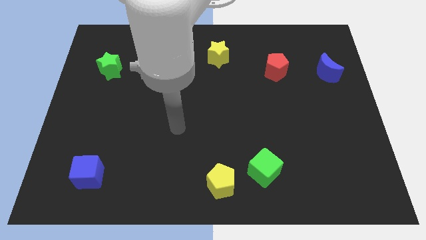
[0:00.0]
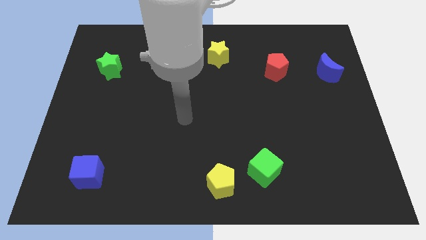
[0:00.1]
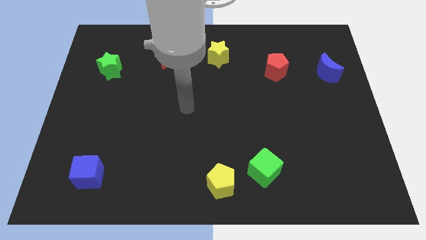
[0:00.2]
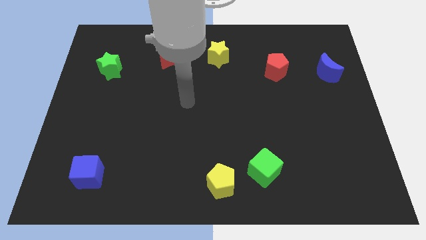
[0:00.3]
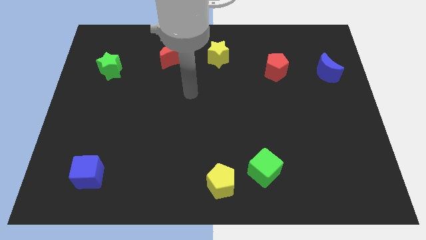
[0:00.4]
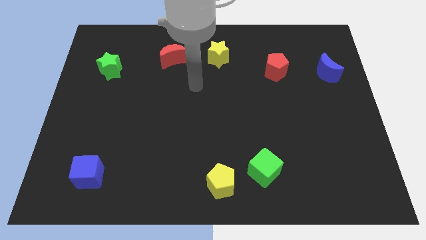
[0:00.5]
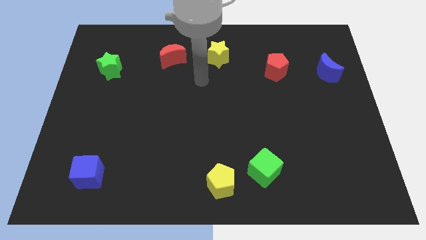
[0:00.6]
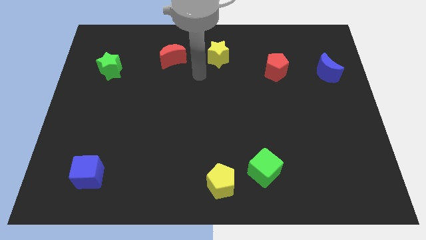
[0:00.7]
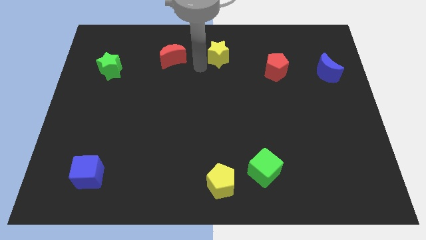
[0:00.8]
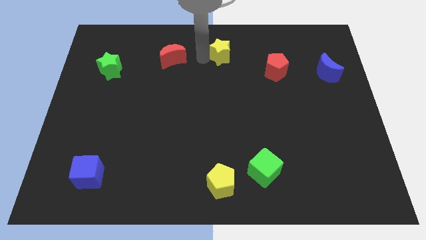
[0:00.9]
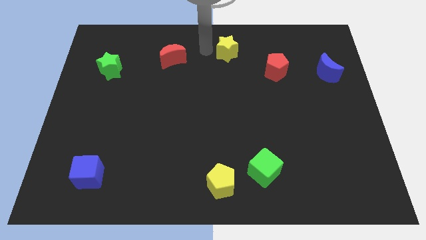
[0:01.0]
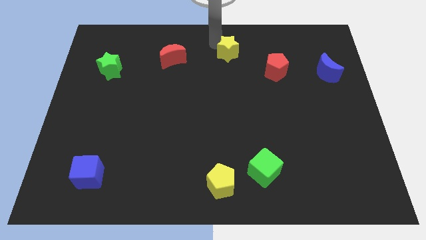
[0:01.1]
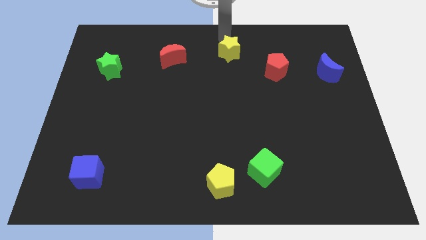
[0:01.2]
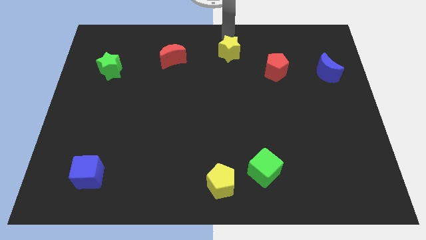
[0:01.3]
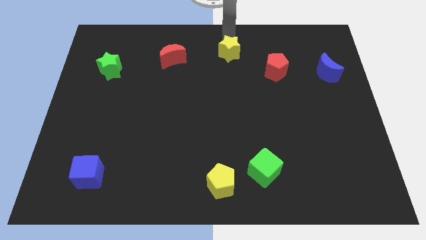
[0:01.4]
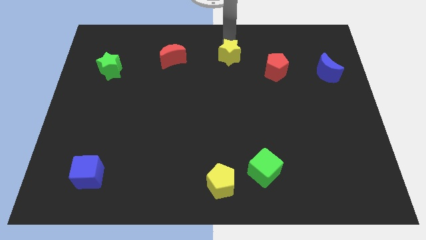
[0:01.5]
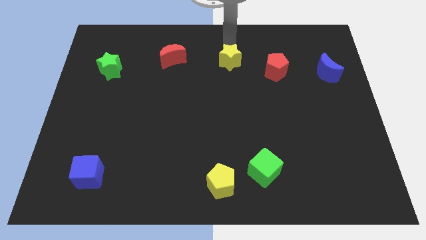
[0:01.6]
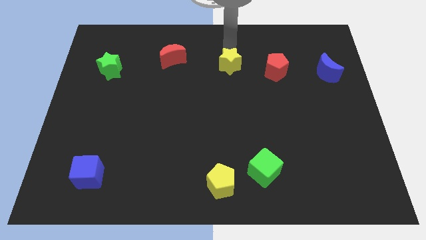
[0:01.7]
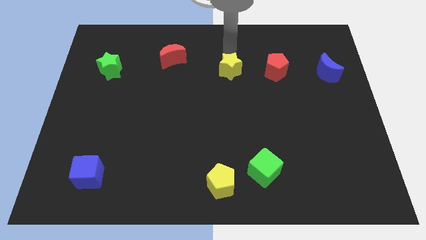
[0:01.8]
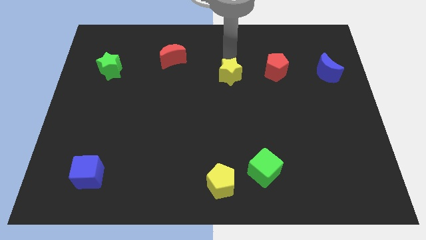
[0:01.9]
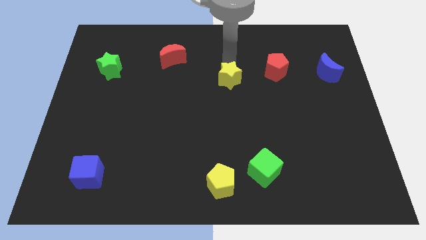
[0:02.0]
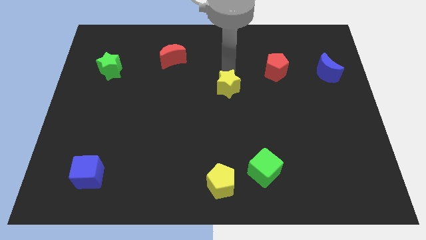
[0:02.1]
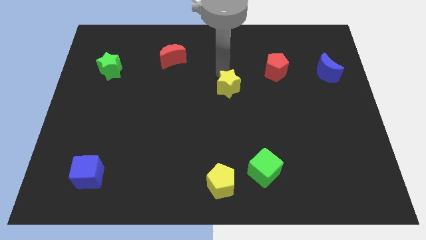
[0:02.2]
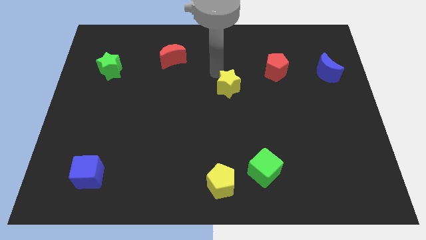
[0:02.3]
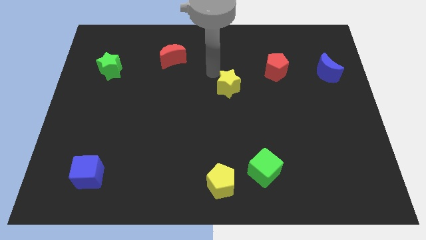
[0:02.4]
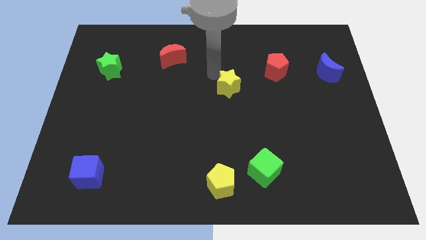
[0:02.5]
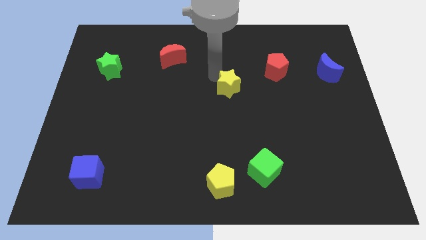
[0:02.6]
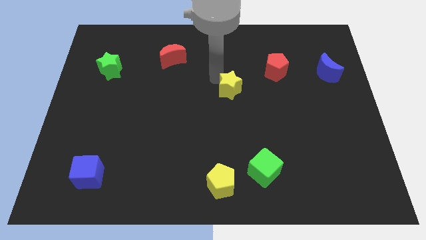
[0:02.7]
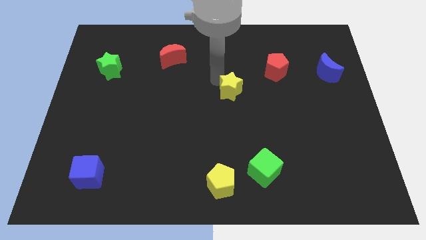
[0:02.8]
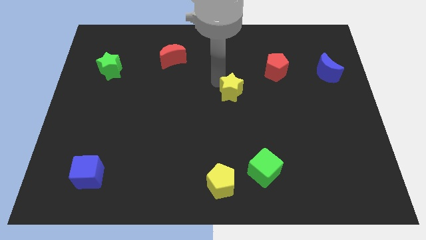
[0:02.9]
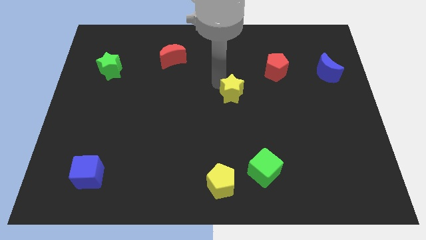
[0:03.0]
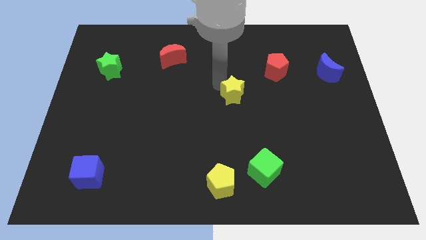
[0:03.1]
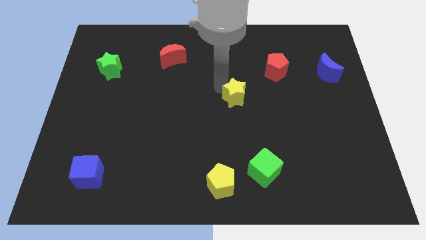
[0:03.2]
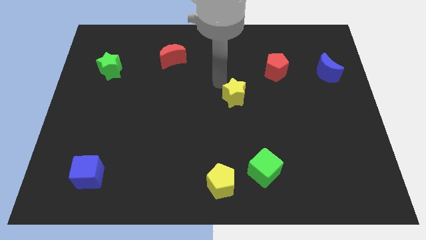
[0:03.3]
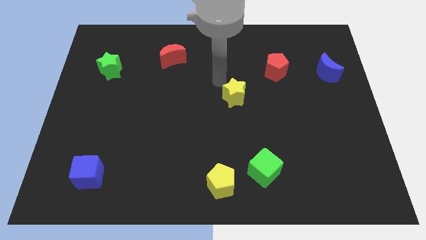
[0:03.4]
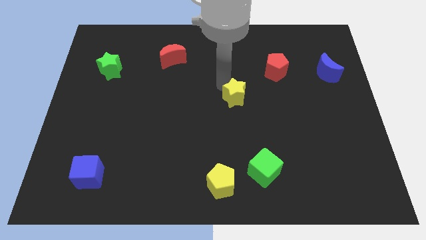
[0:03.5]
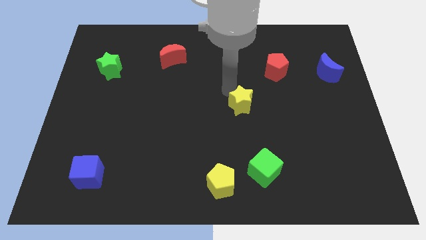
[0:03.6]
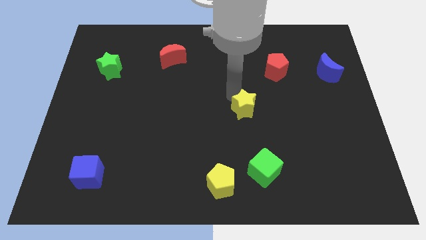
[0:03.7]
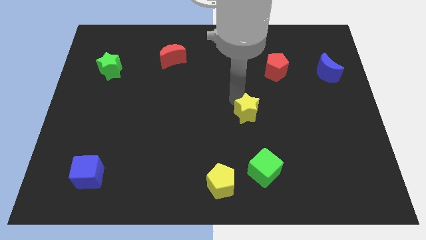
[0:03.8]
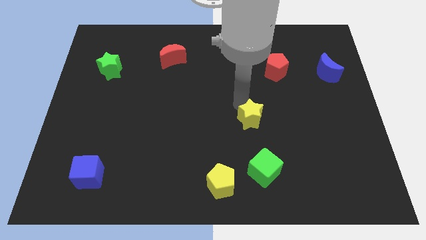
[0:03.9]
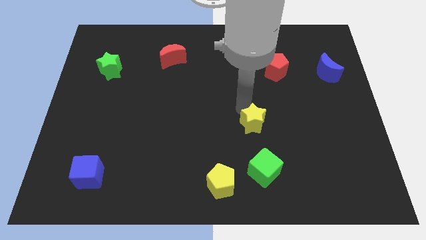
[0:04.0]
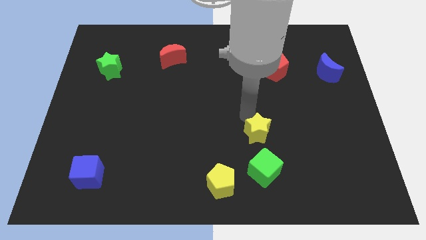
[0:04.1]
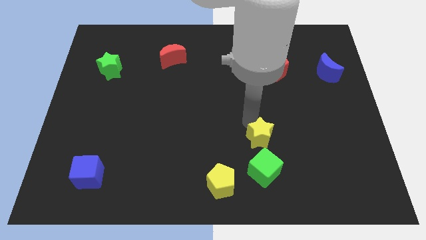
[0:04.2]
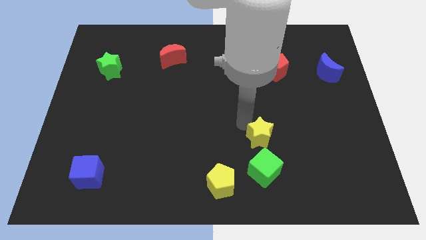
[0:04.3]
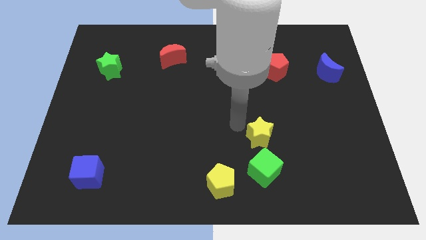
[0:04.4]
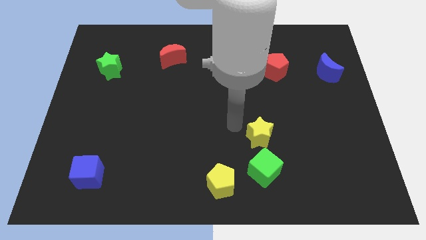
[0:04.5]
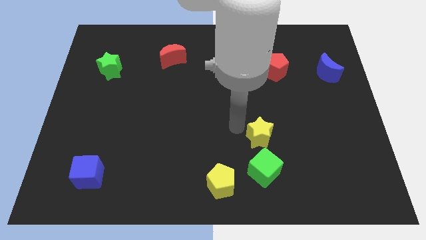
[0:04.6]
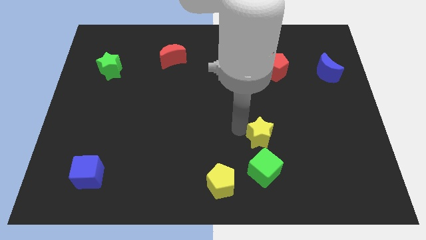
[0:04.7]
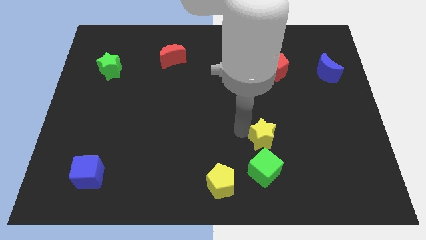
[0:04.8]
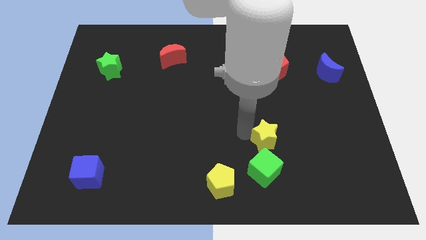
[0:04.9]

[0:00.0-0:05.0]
slide the yellow star diagonally up and to the right of the green cube

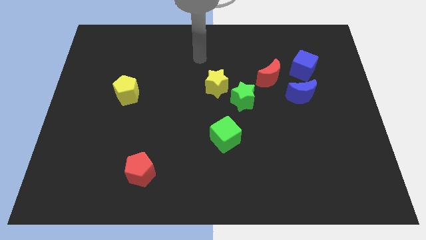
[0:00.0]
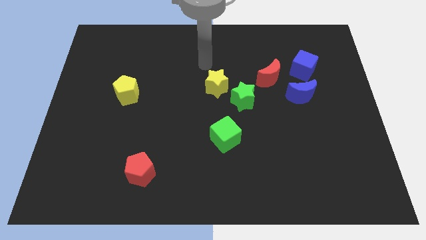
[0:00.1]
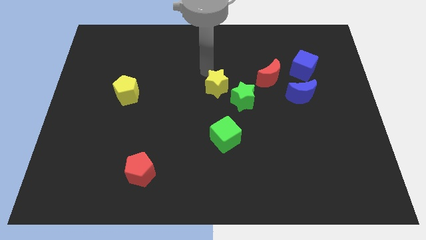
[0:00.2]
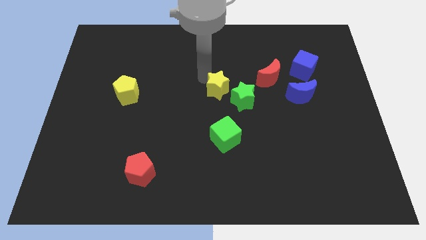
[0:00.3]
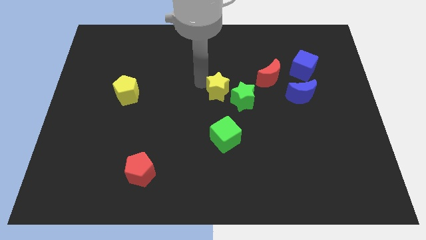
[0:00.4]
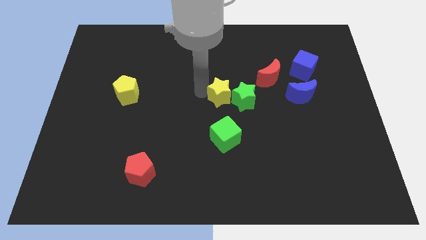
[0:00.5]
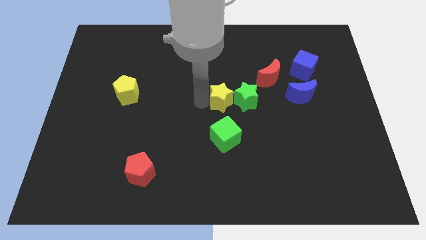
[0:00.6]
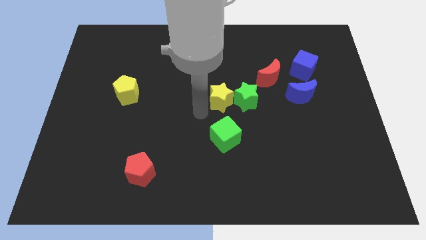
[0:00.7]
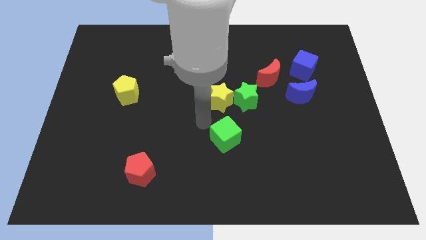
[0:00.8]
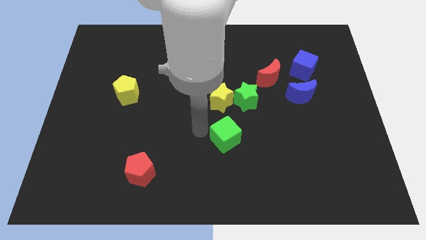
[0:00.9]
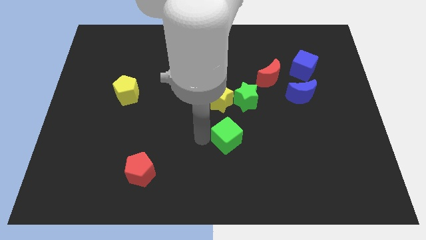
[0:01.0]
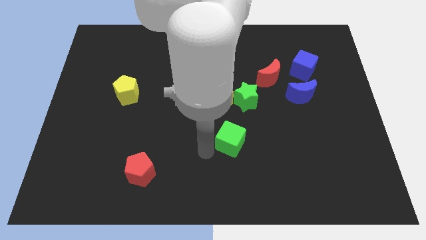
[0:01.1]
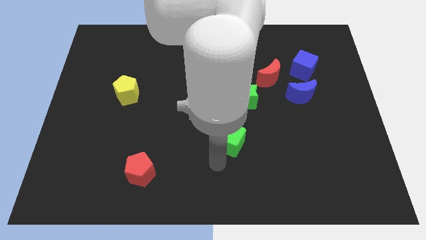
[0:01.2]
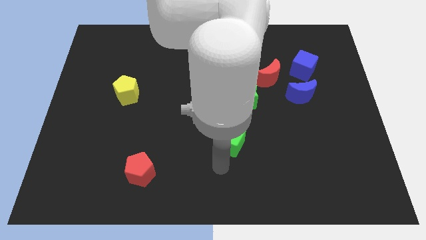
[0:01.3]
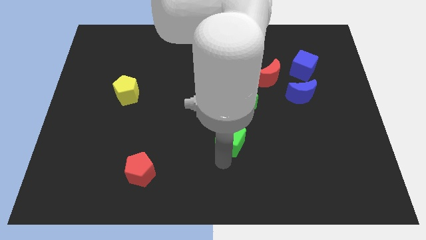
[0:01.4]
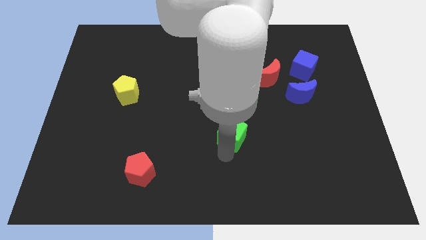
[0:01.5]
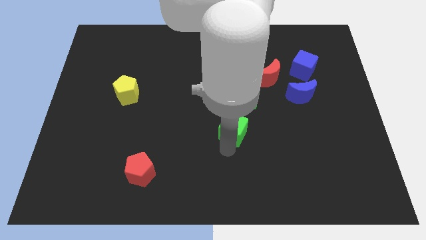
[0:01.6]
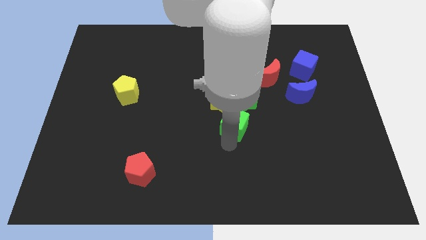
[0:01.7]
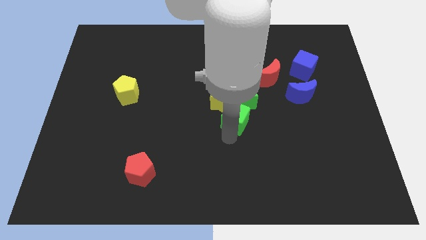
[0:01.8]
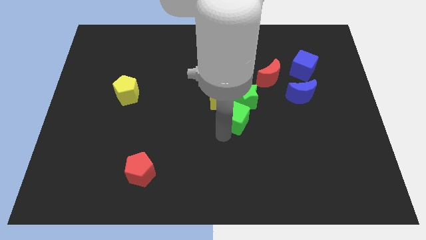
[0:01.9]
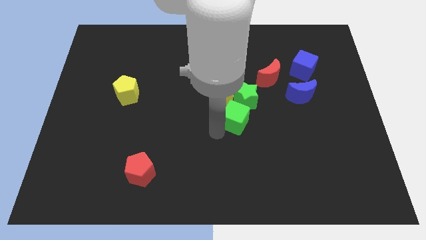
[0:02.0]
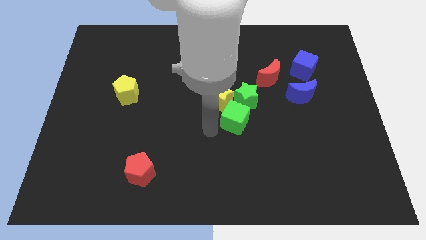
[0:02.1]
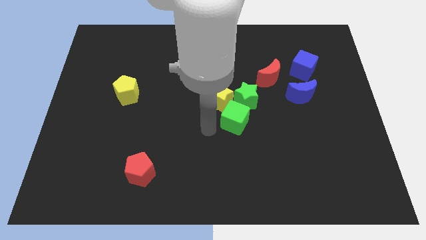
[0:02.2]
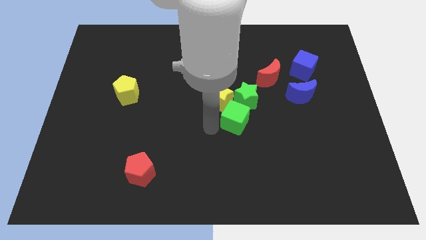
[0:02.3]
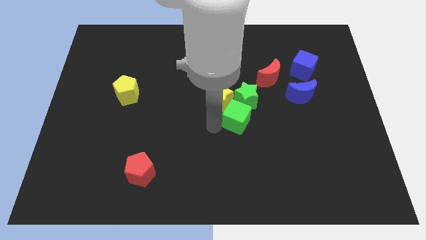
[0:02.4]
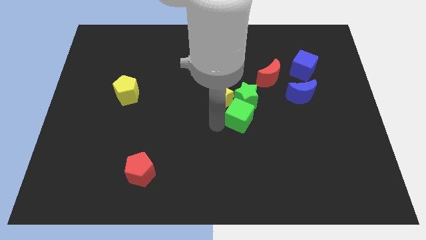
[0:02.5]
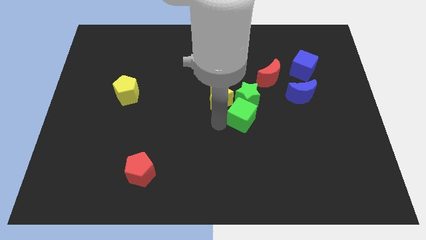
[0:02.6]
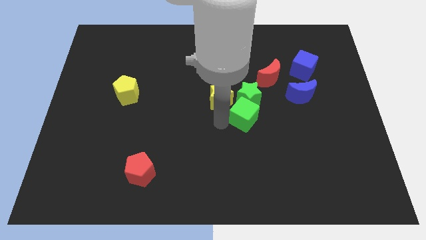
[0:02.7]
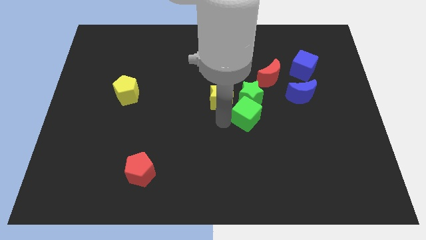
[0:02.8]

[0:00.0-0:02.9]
move the green cube just right of the yellow star

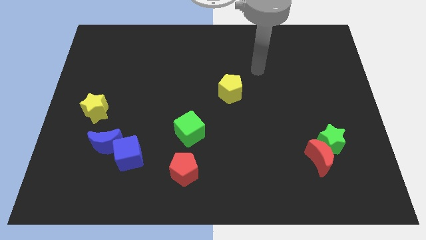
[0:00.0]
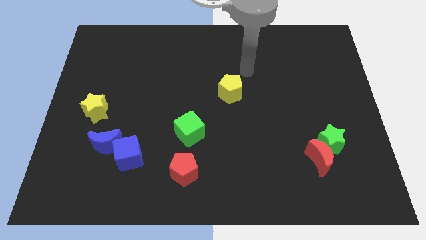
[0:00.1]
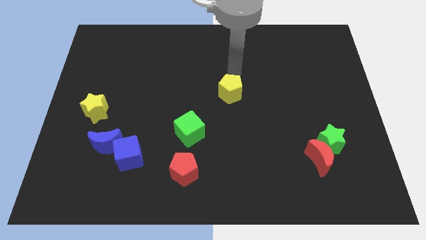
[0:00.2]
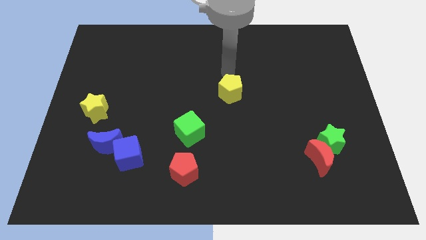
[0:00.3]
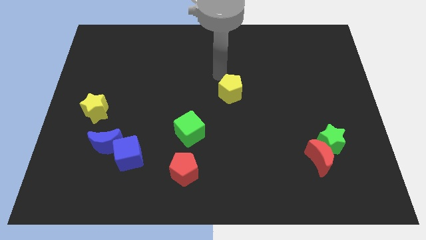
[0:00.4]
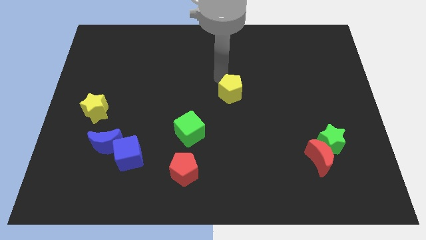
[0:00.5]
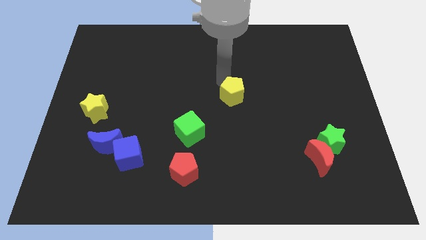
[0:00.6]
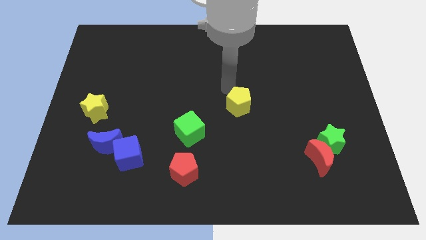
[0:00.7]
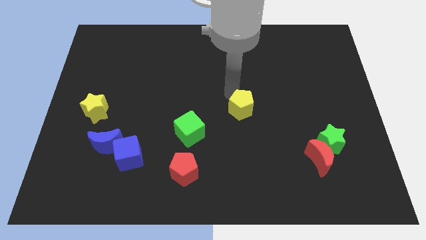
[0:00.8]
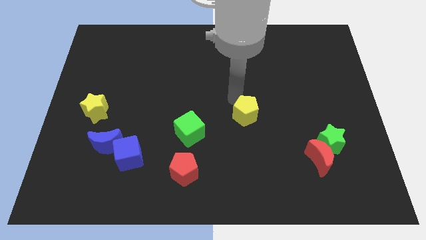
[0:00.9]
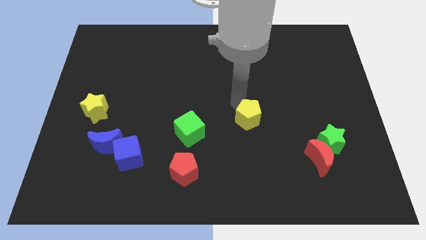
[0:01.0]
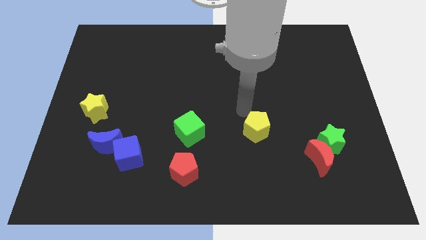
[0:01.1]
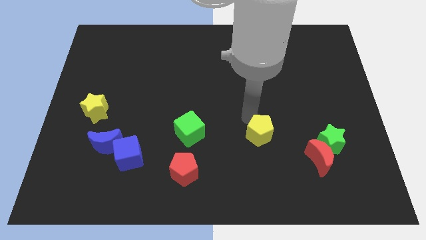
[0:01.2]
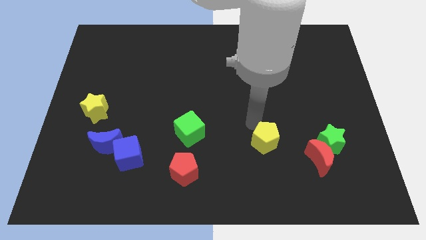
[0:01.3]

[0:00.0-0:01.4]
move the yellow pentagon to the left of the red moon
